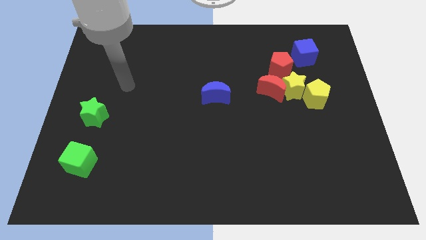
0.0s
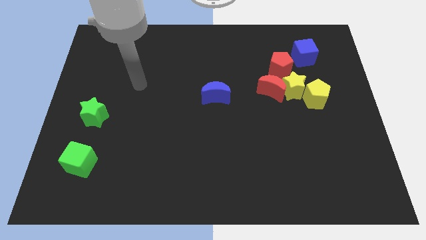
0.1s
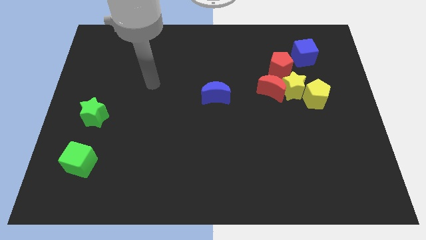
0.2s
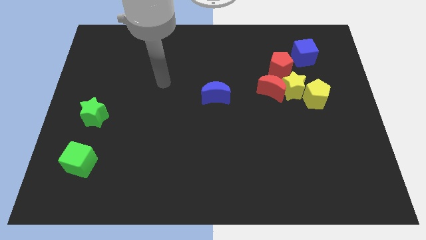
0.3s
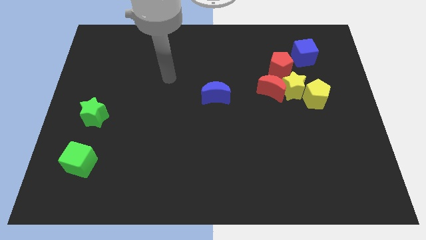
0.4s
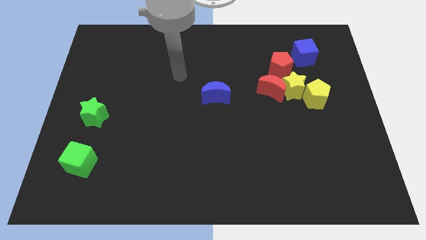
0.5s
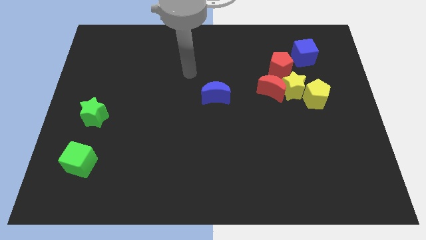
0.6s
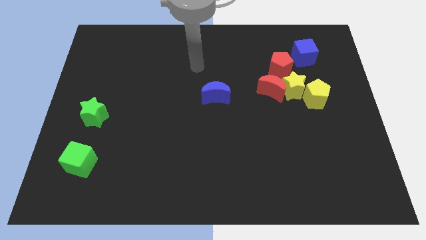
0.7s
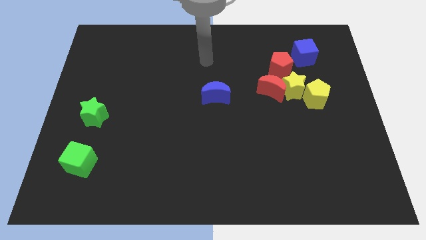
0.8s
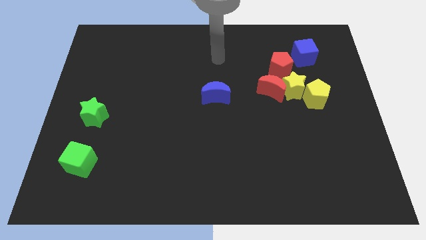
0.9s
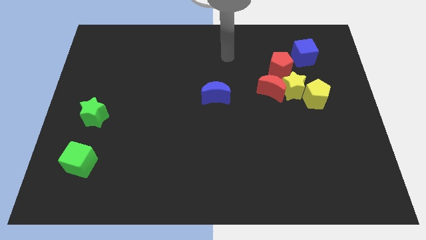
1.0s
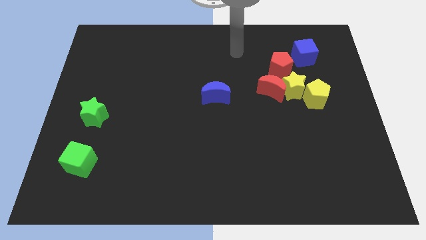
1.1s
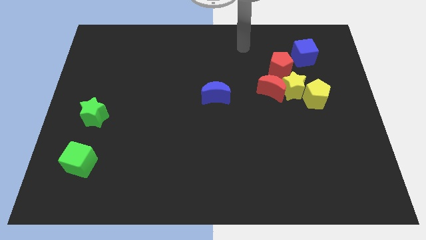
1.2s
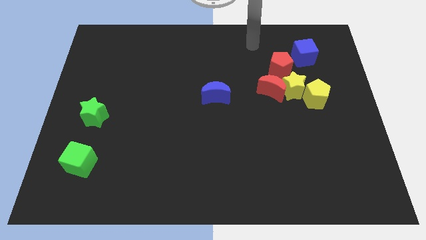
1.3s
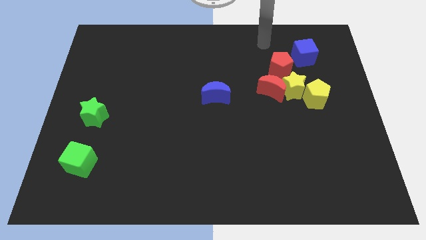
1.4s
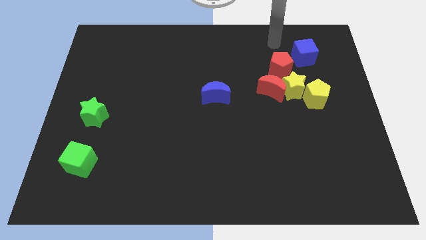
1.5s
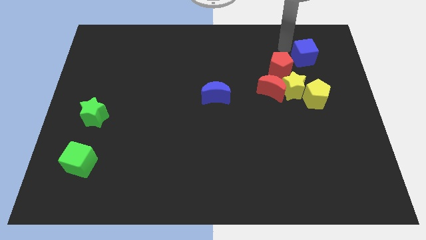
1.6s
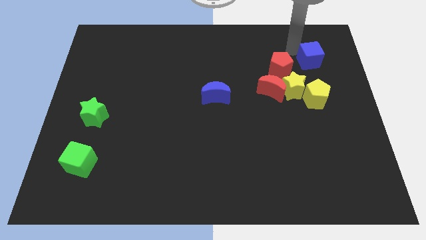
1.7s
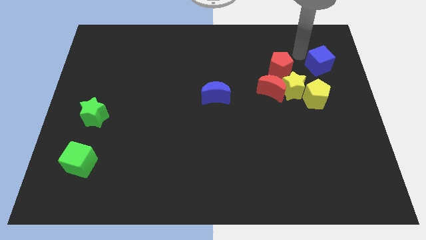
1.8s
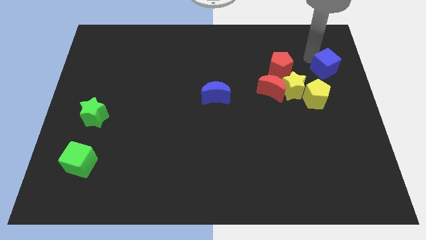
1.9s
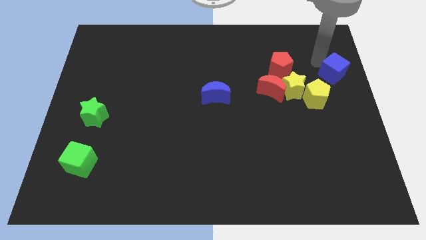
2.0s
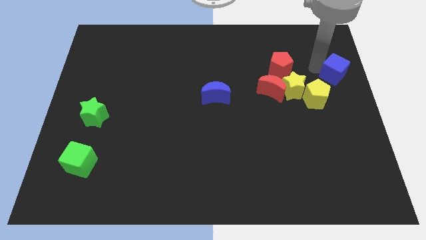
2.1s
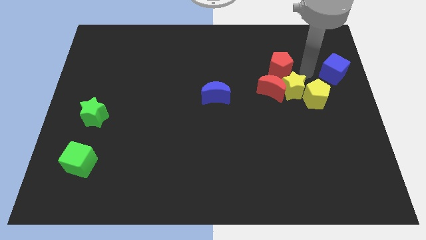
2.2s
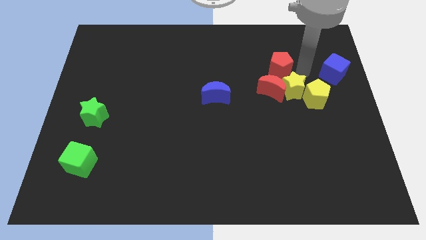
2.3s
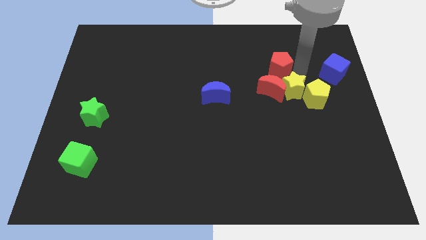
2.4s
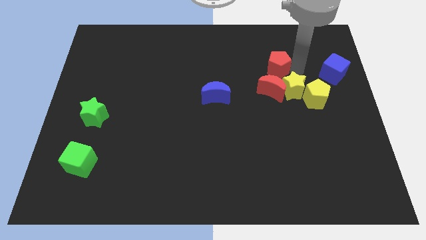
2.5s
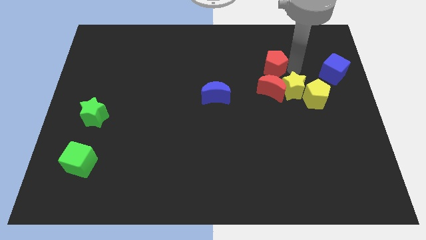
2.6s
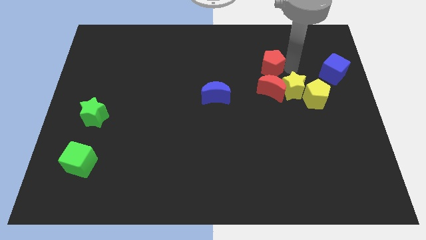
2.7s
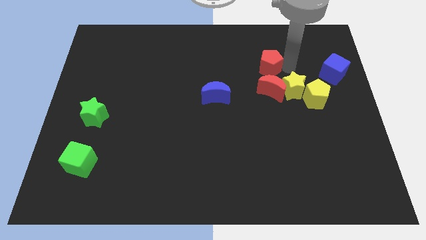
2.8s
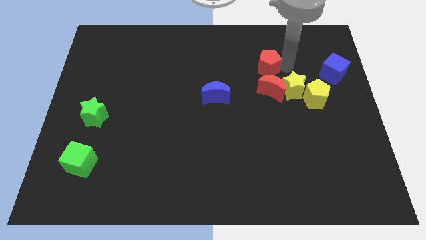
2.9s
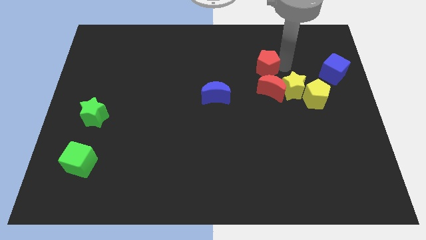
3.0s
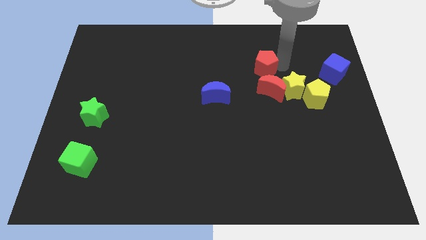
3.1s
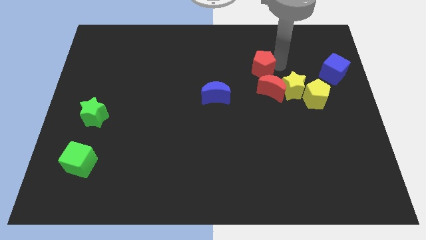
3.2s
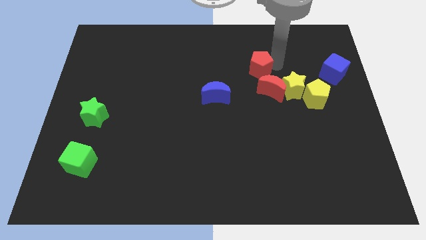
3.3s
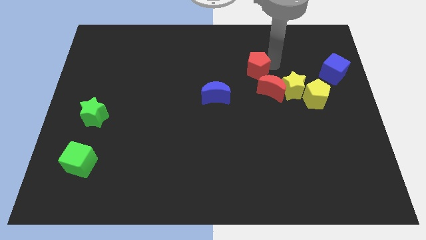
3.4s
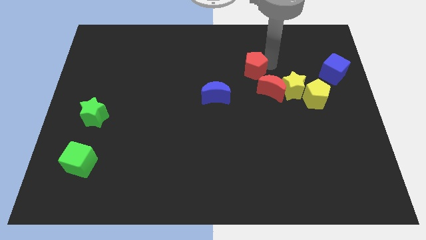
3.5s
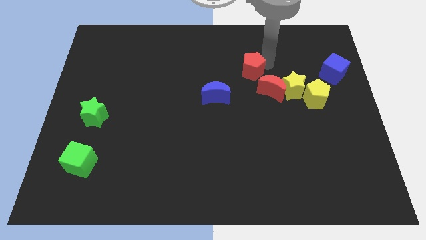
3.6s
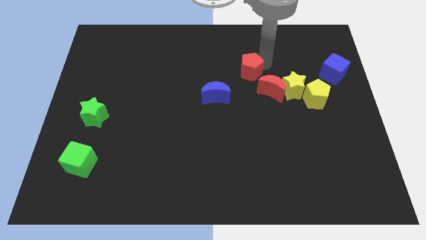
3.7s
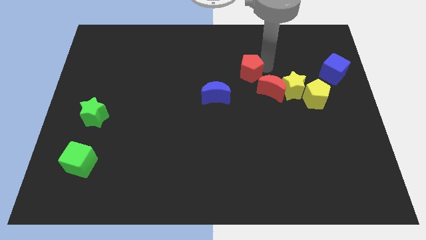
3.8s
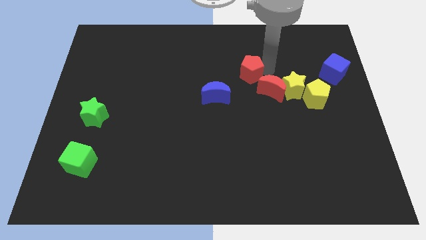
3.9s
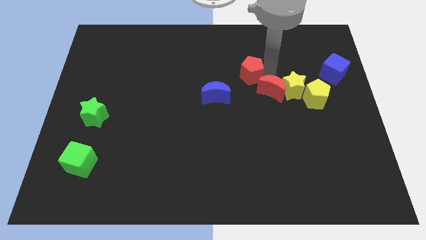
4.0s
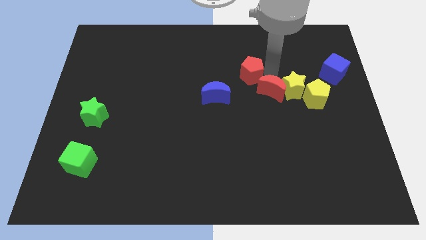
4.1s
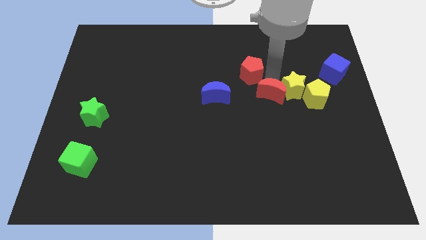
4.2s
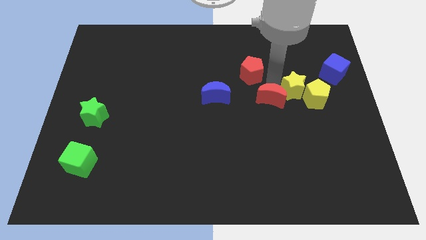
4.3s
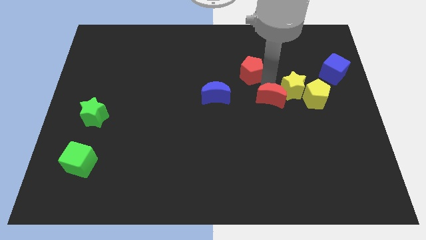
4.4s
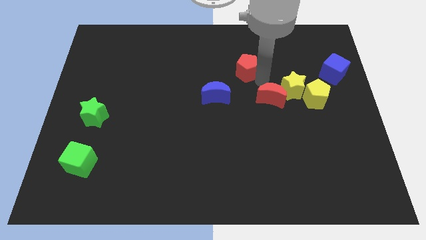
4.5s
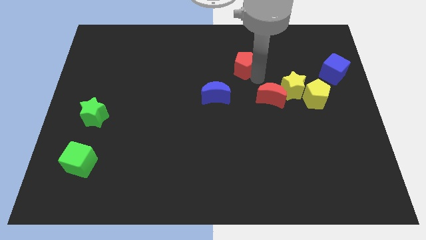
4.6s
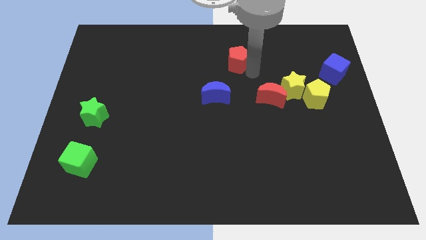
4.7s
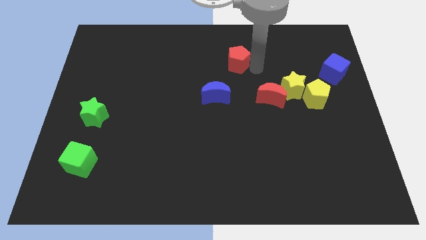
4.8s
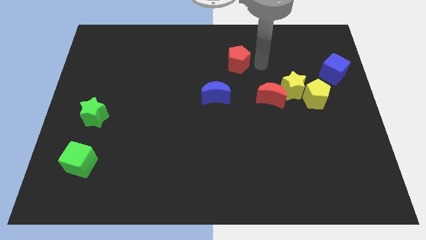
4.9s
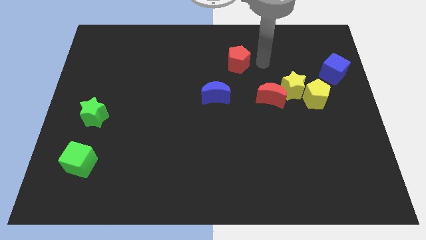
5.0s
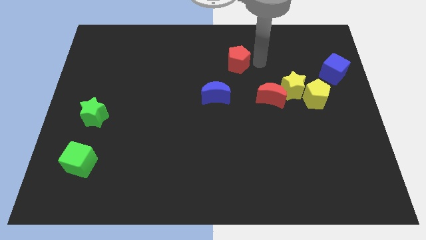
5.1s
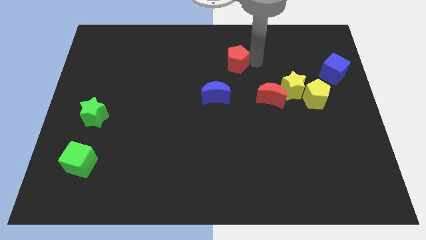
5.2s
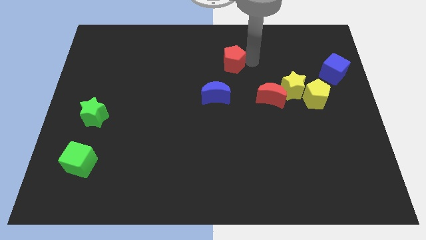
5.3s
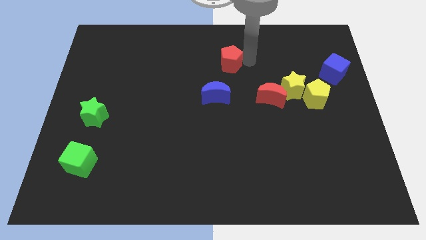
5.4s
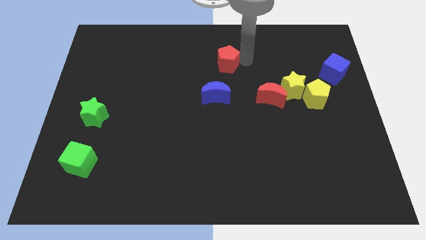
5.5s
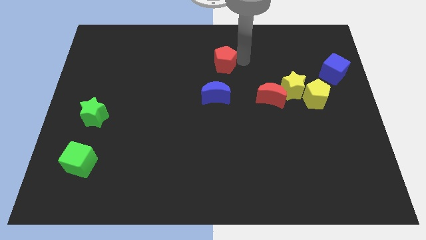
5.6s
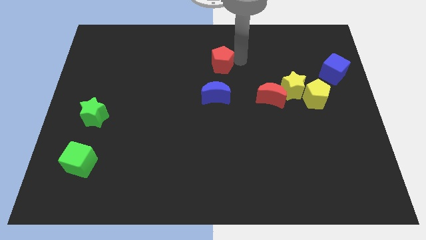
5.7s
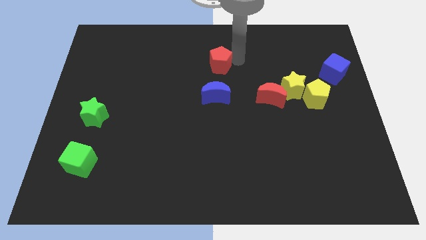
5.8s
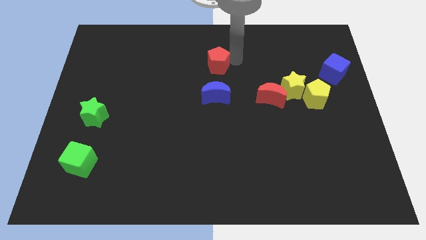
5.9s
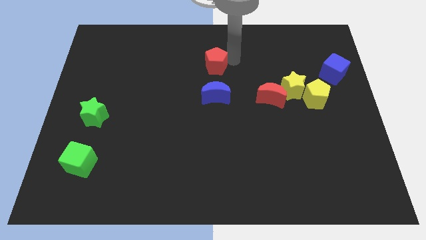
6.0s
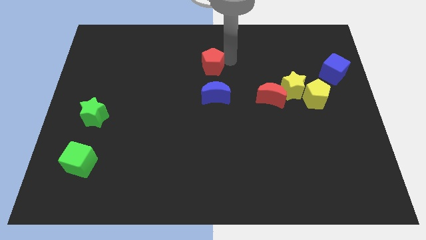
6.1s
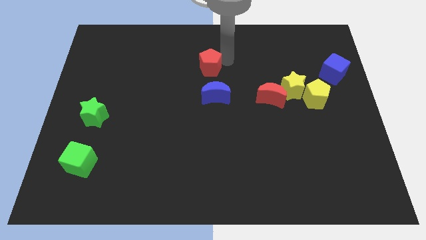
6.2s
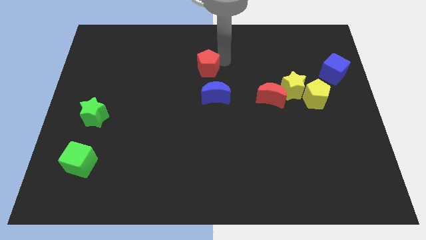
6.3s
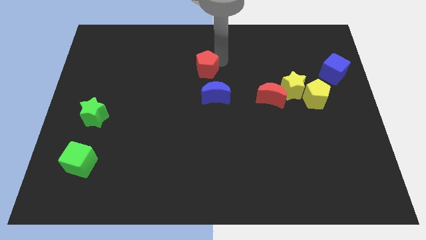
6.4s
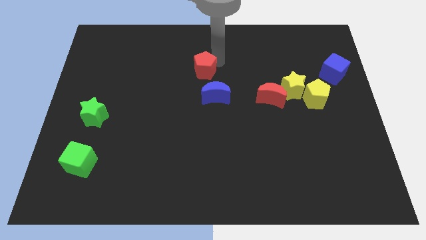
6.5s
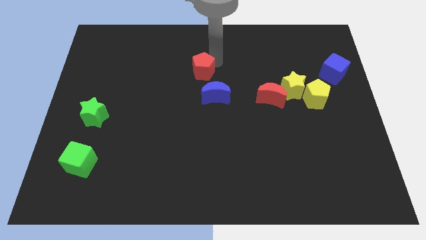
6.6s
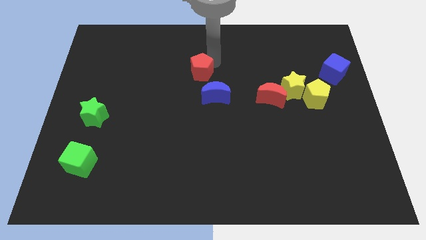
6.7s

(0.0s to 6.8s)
move the red pentagon left

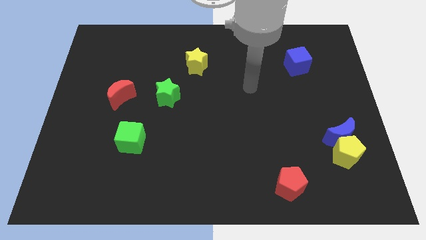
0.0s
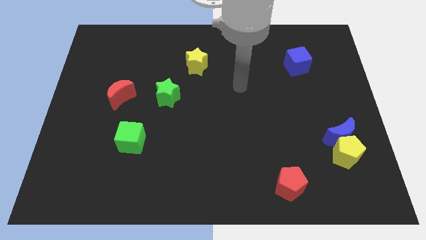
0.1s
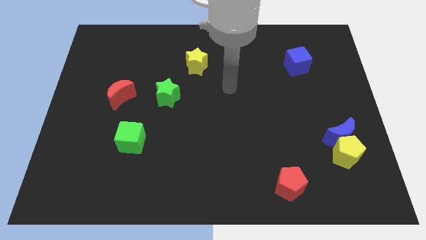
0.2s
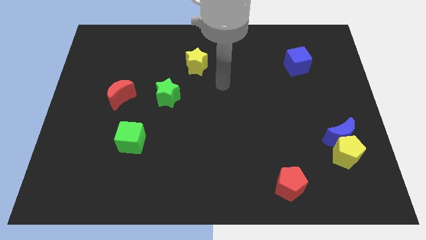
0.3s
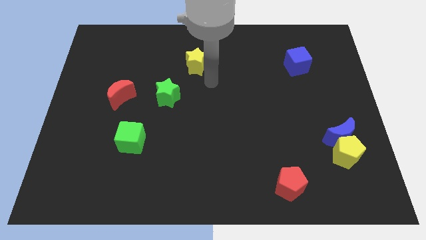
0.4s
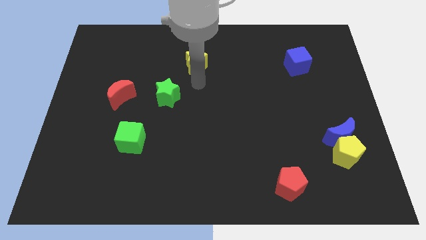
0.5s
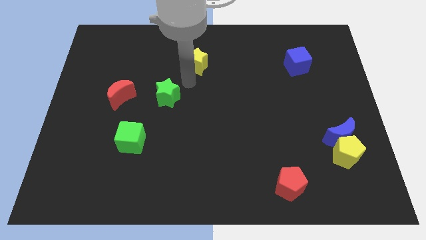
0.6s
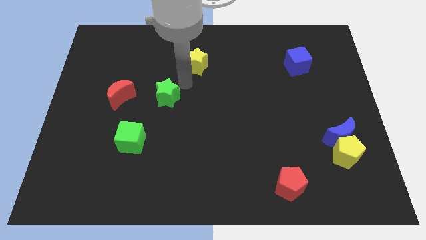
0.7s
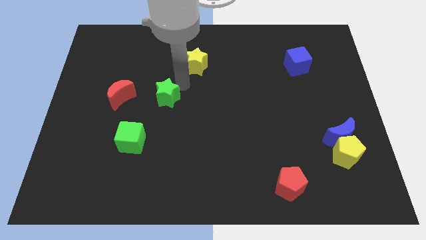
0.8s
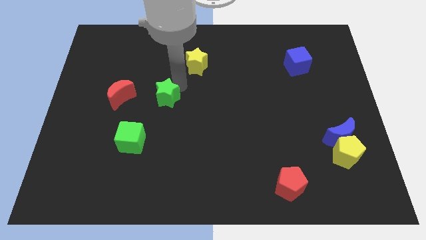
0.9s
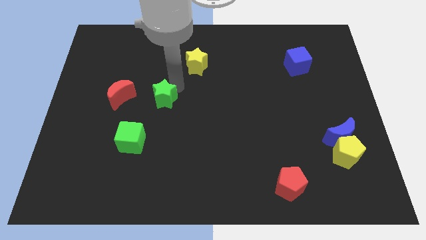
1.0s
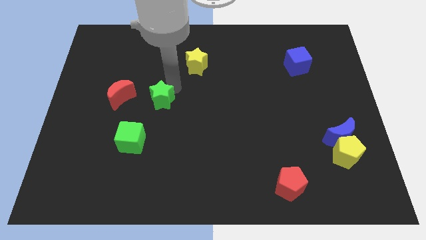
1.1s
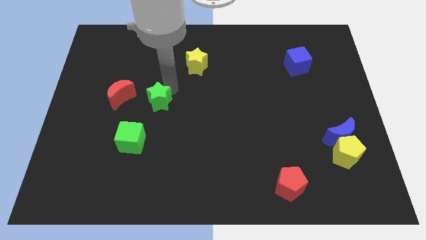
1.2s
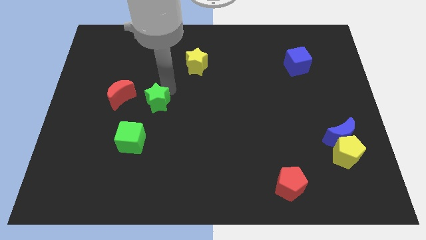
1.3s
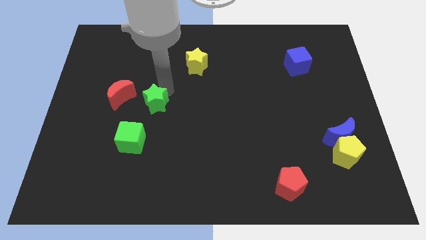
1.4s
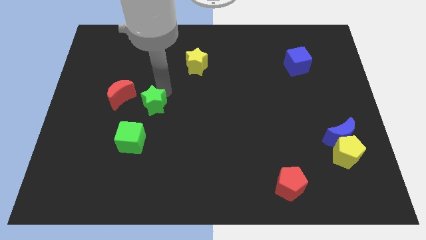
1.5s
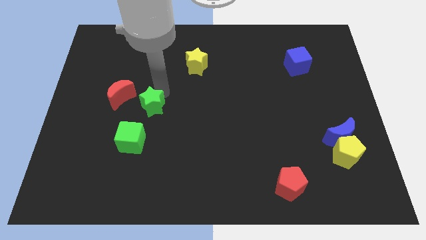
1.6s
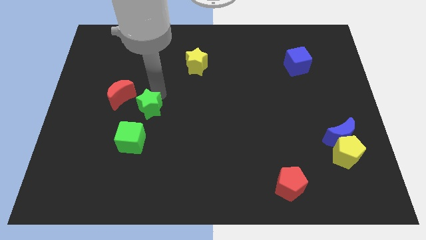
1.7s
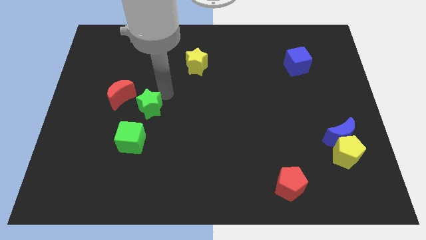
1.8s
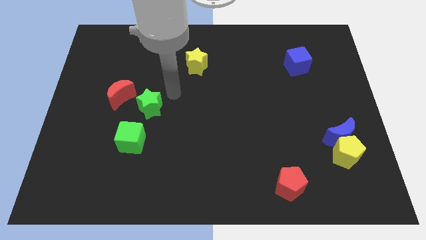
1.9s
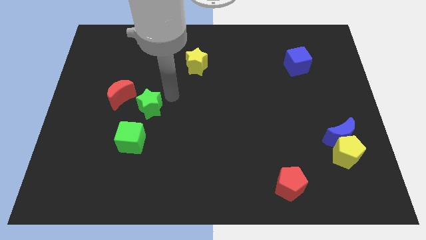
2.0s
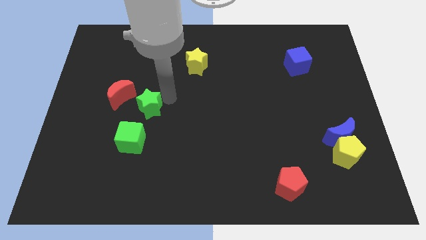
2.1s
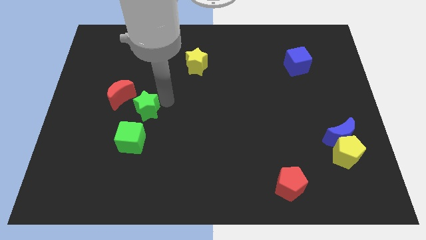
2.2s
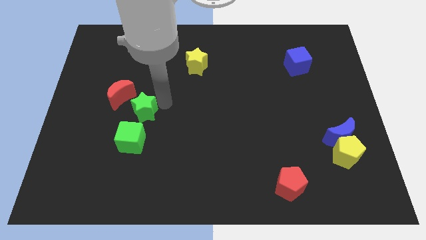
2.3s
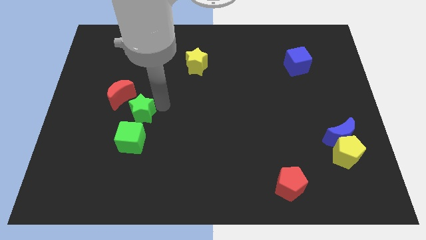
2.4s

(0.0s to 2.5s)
move the green star downwards and left somewhat
